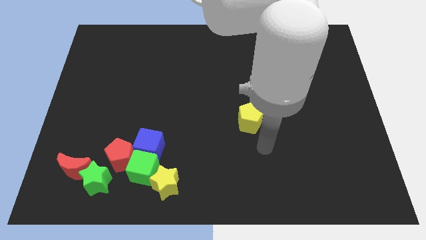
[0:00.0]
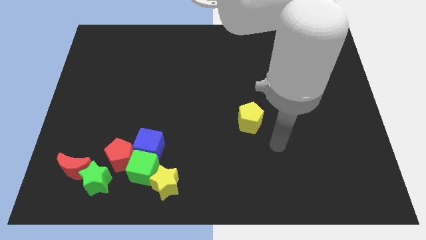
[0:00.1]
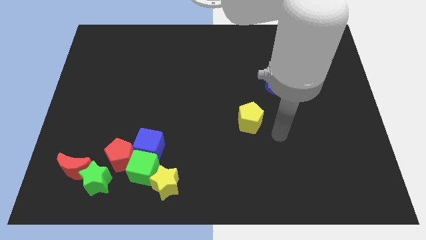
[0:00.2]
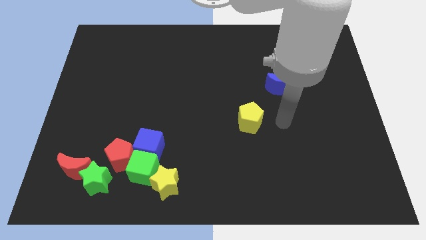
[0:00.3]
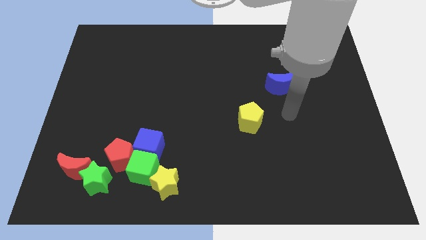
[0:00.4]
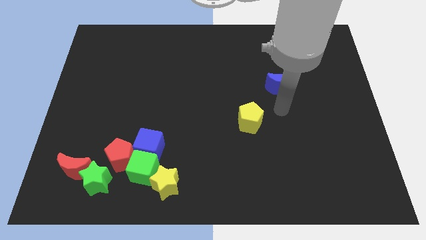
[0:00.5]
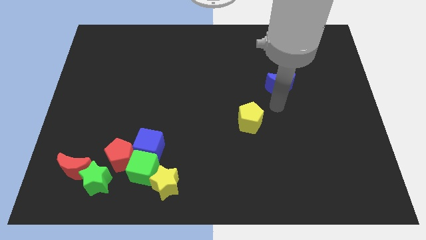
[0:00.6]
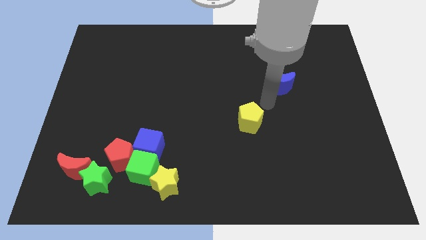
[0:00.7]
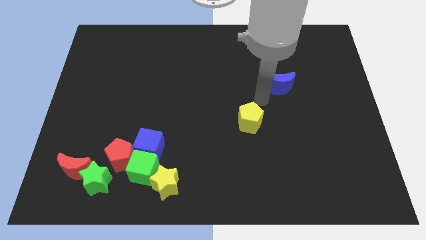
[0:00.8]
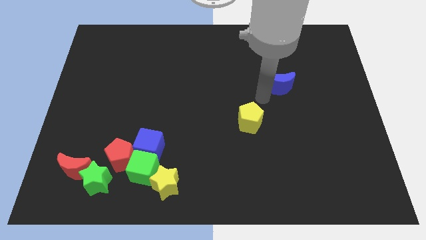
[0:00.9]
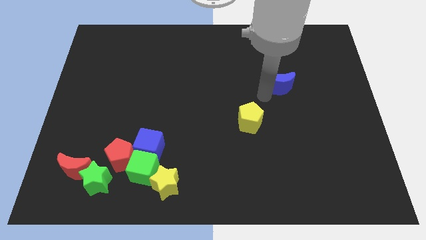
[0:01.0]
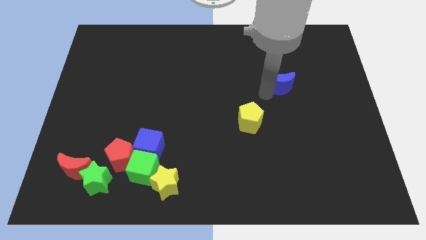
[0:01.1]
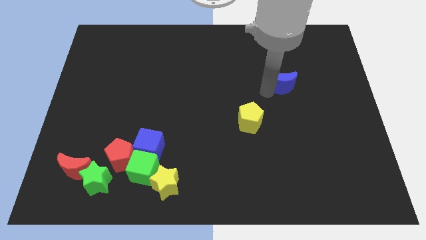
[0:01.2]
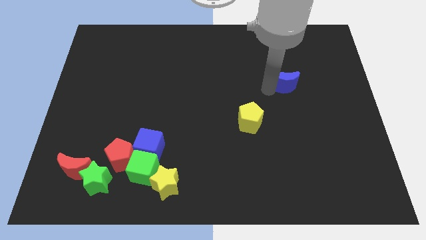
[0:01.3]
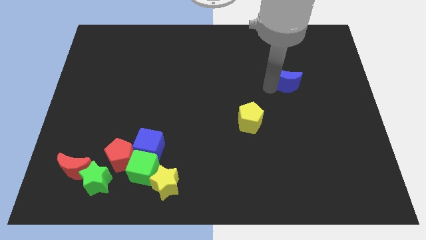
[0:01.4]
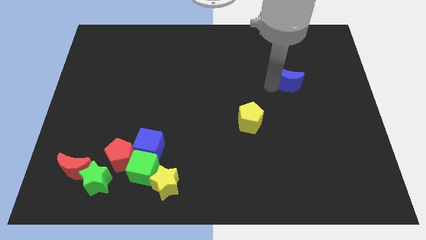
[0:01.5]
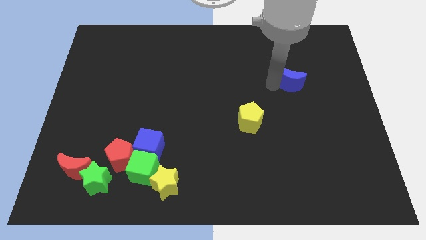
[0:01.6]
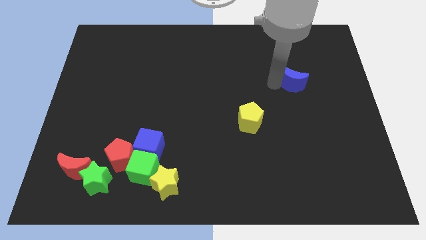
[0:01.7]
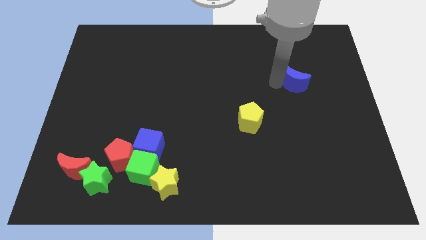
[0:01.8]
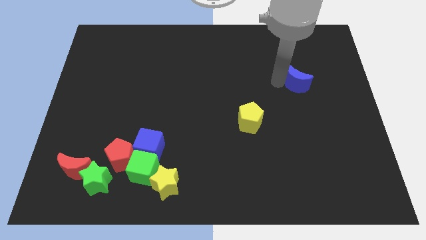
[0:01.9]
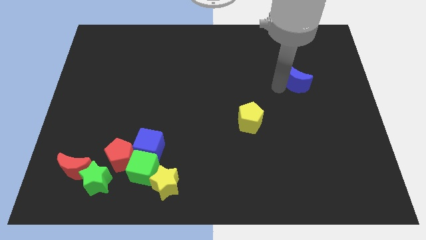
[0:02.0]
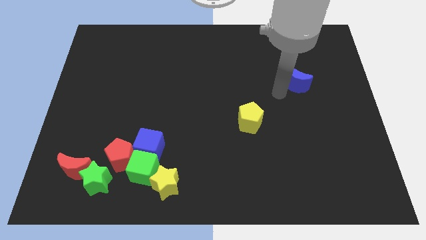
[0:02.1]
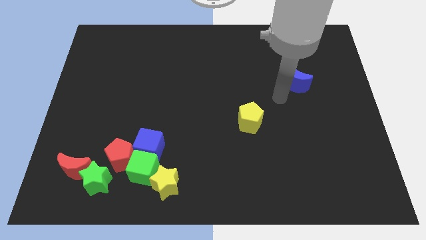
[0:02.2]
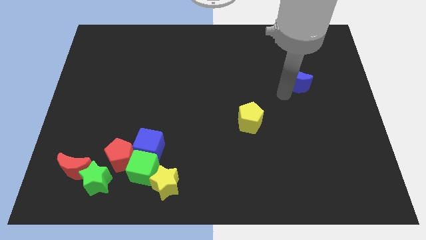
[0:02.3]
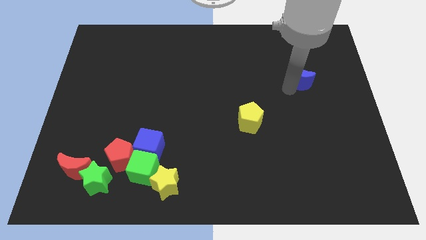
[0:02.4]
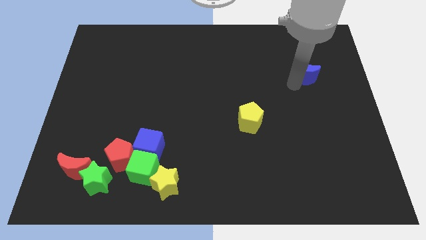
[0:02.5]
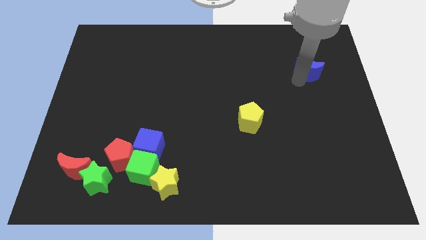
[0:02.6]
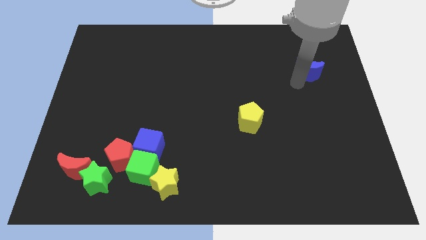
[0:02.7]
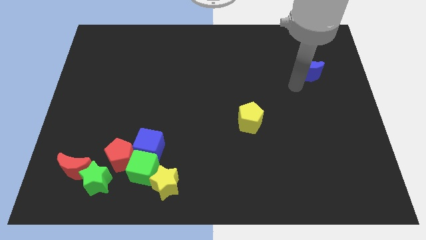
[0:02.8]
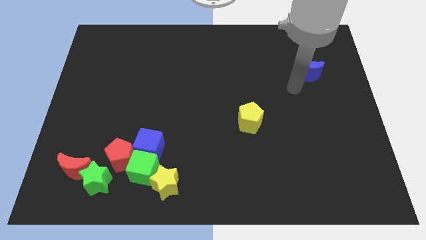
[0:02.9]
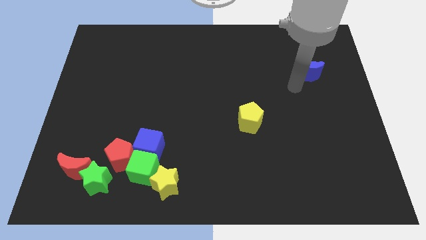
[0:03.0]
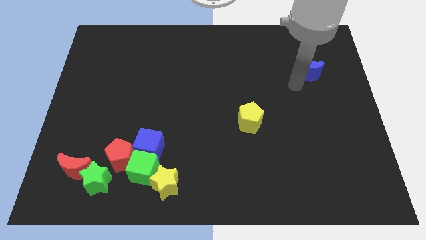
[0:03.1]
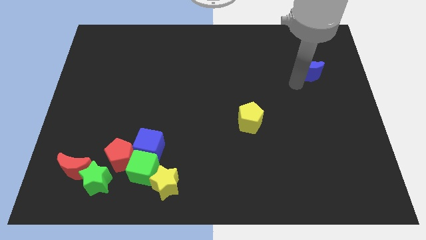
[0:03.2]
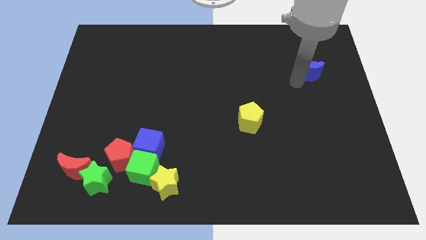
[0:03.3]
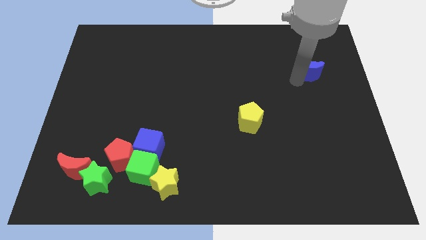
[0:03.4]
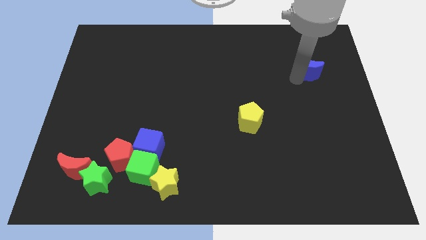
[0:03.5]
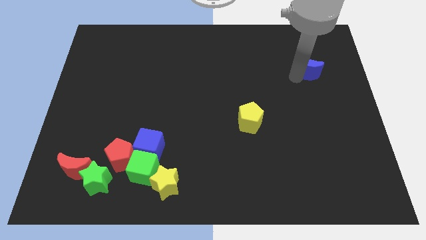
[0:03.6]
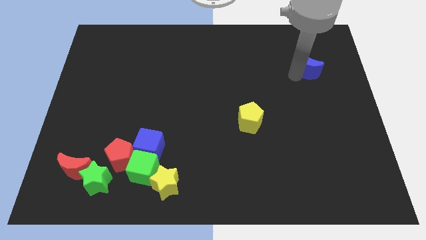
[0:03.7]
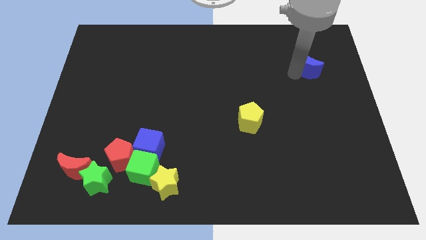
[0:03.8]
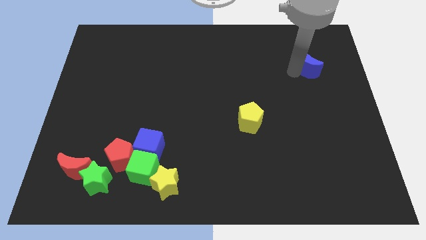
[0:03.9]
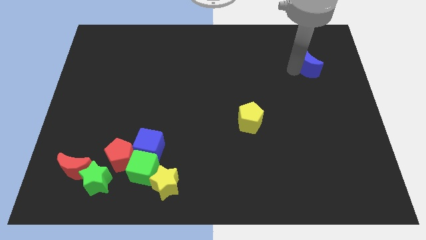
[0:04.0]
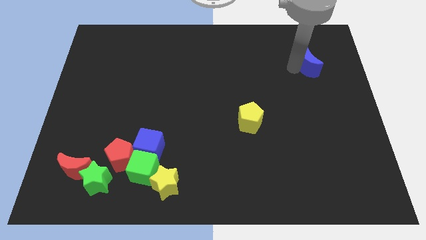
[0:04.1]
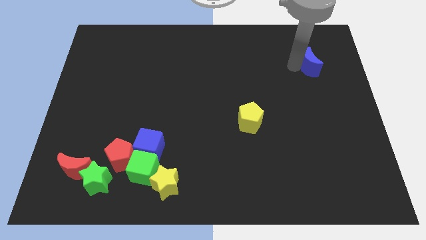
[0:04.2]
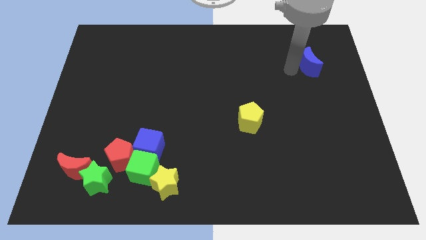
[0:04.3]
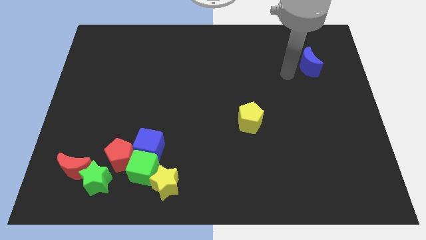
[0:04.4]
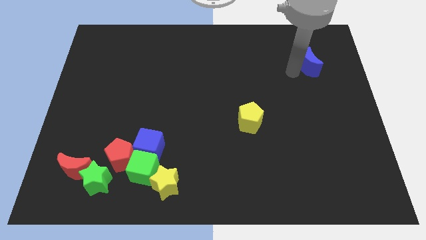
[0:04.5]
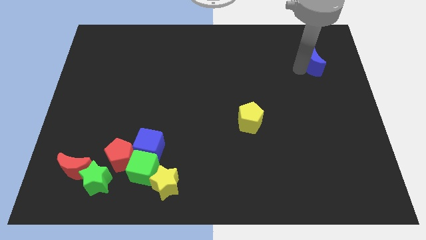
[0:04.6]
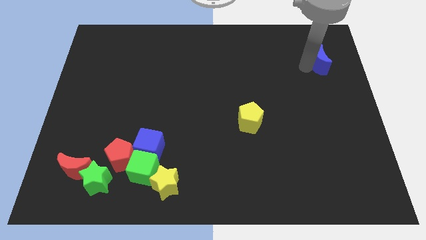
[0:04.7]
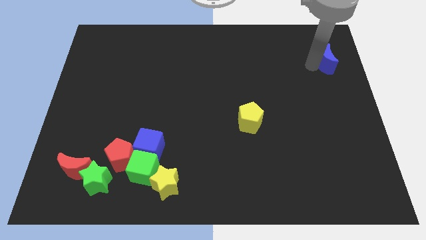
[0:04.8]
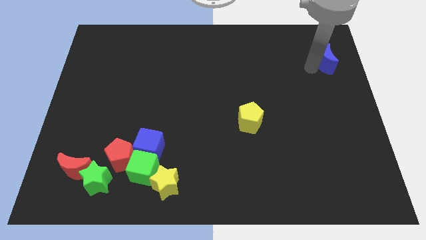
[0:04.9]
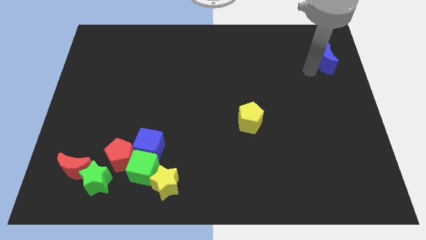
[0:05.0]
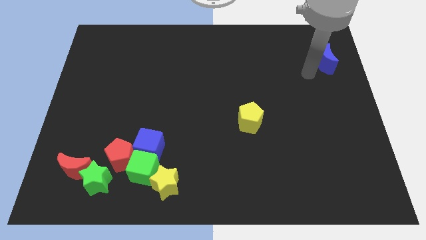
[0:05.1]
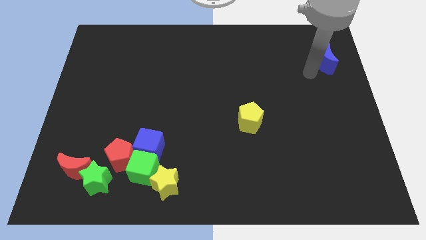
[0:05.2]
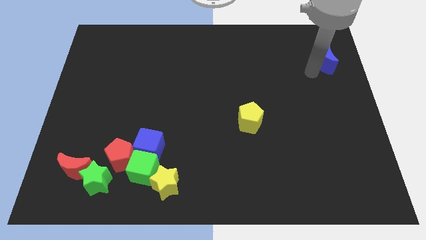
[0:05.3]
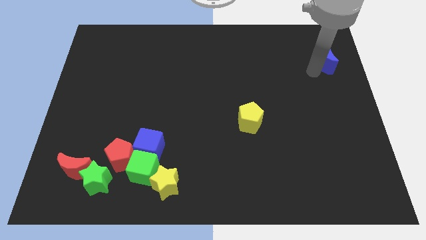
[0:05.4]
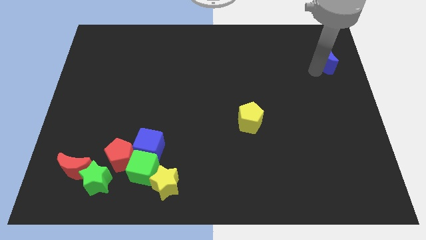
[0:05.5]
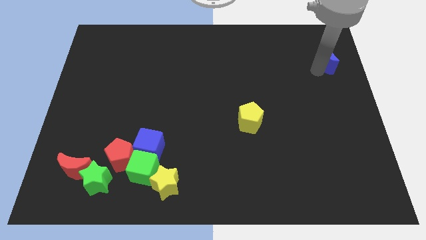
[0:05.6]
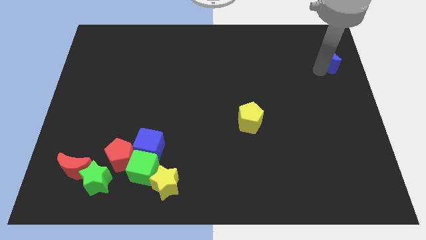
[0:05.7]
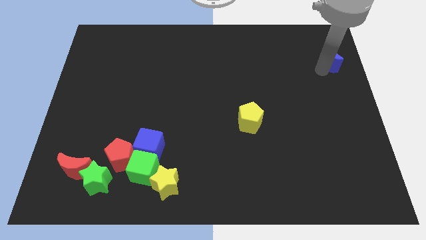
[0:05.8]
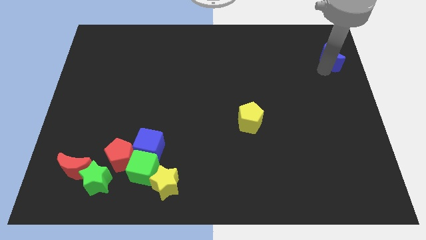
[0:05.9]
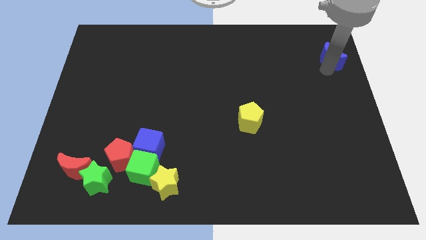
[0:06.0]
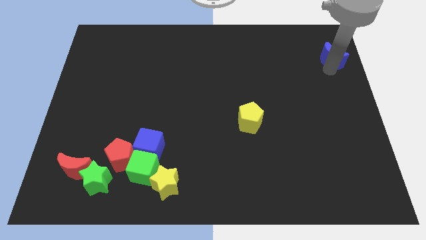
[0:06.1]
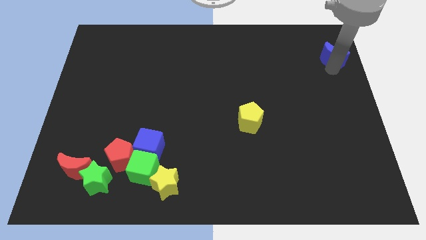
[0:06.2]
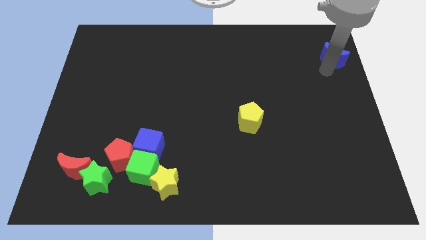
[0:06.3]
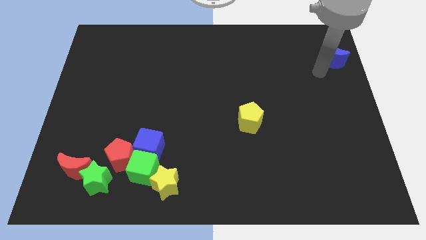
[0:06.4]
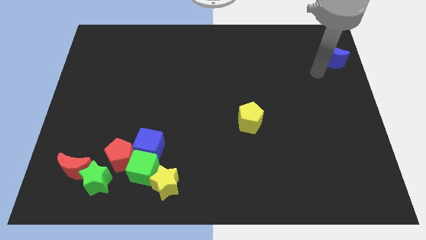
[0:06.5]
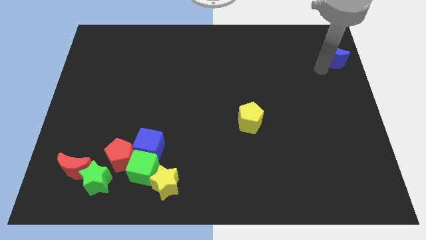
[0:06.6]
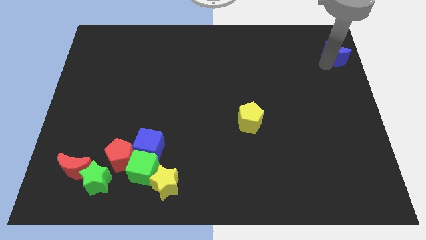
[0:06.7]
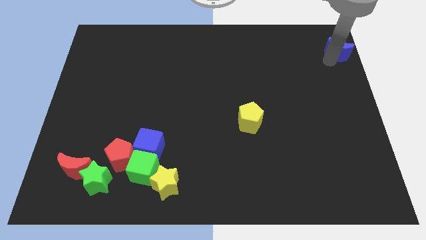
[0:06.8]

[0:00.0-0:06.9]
move the blue moon to the top right of the board
